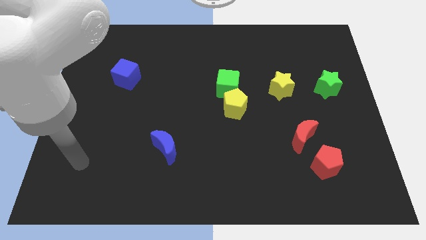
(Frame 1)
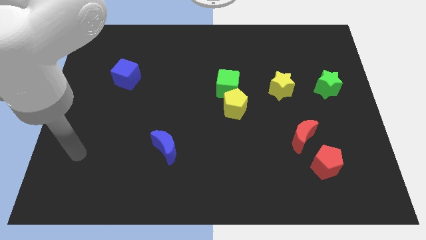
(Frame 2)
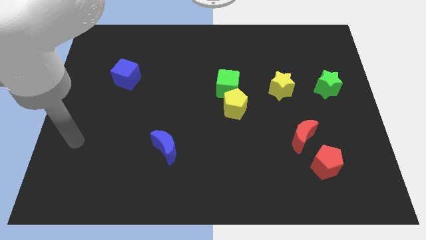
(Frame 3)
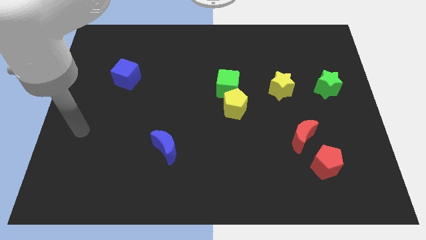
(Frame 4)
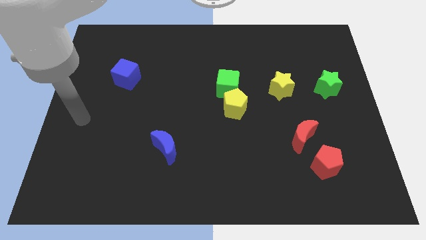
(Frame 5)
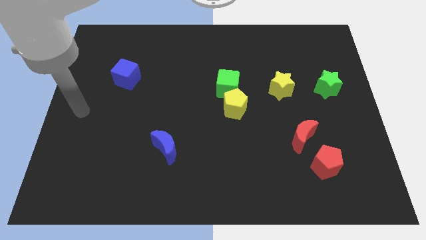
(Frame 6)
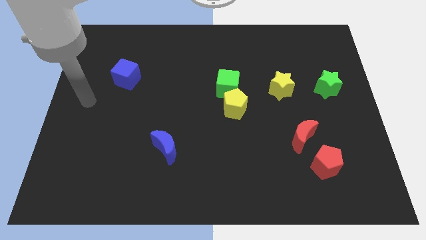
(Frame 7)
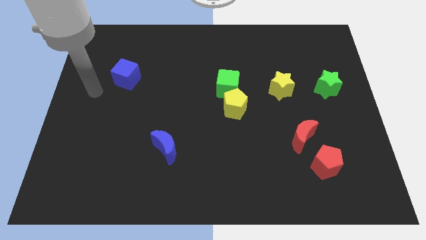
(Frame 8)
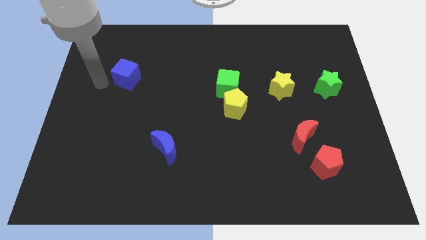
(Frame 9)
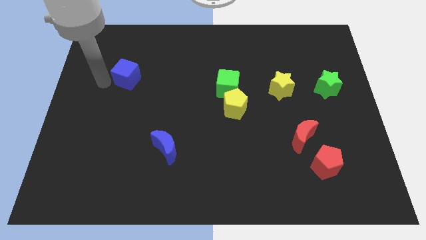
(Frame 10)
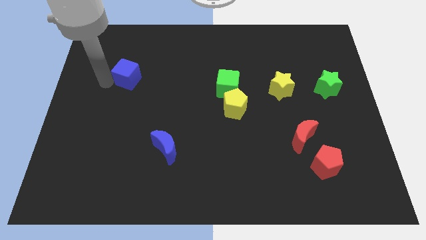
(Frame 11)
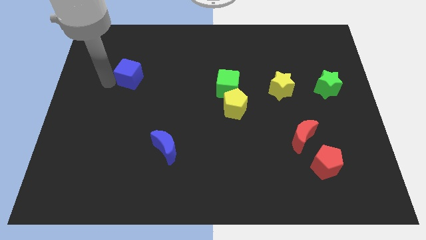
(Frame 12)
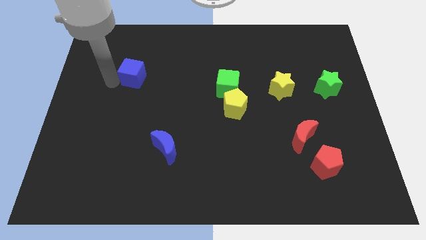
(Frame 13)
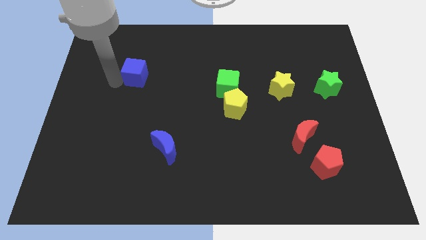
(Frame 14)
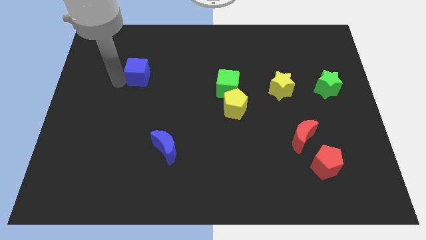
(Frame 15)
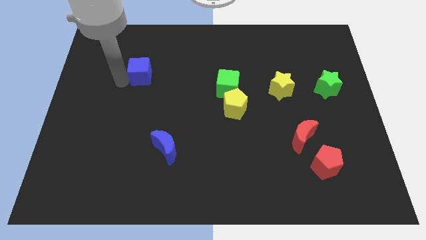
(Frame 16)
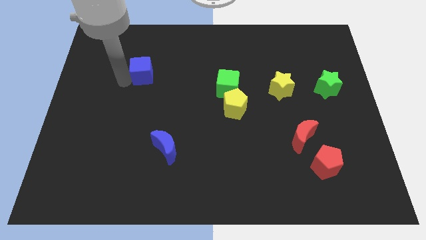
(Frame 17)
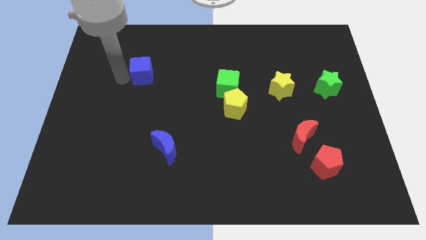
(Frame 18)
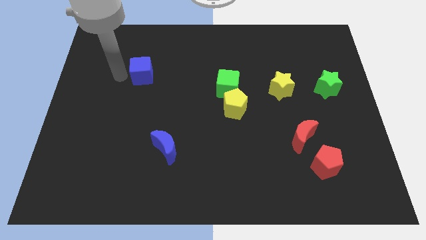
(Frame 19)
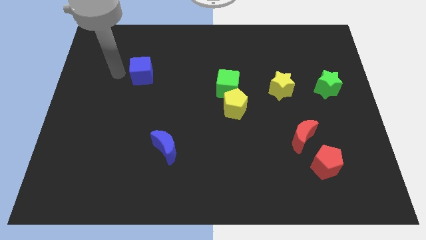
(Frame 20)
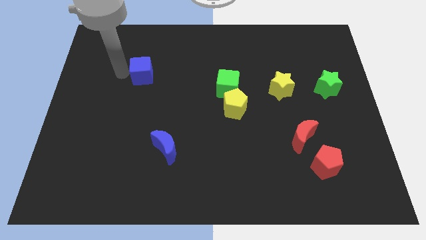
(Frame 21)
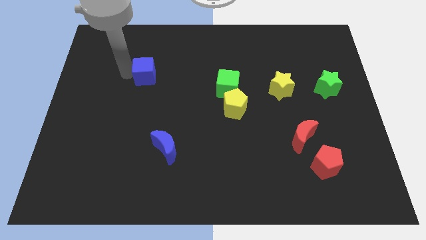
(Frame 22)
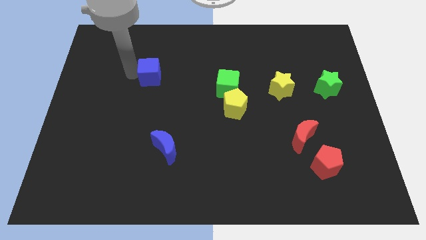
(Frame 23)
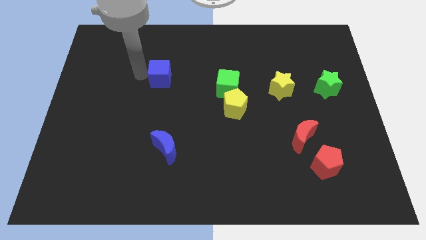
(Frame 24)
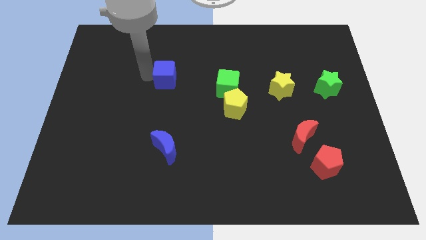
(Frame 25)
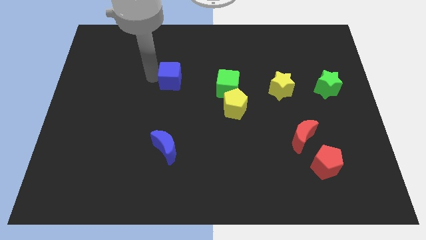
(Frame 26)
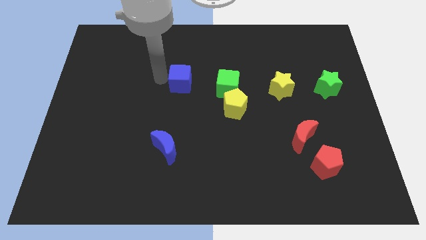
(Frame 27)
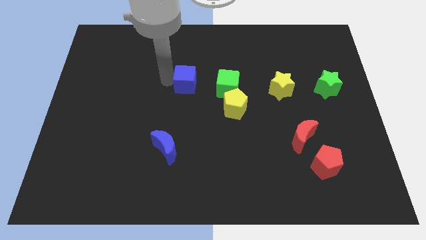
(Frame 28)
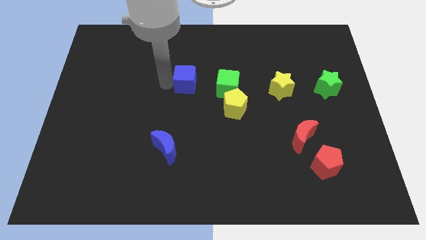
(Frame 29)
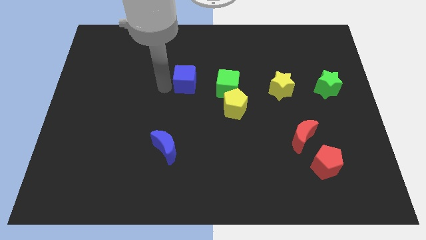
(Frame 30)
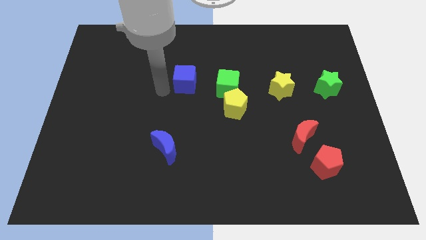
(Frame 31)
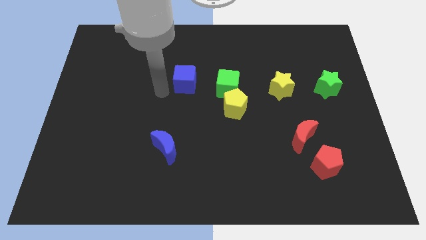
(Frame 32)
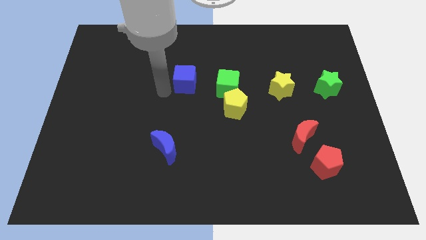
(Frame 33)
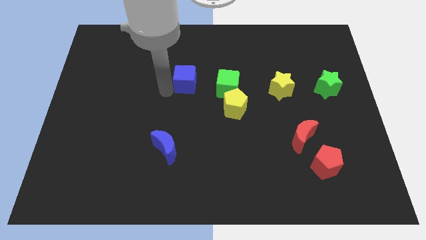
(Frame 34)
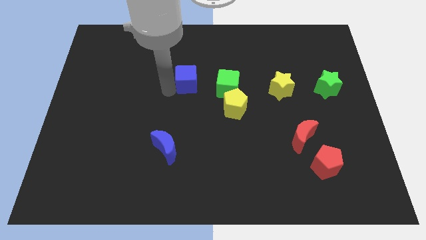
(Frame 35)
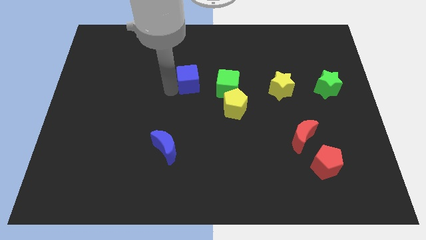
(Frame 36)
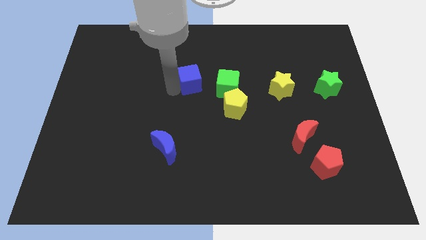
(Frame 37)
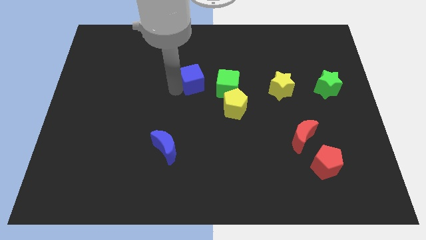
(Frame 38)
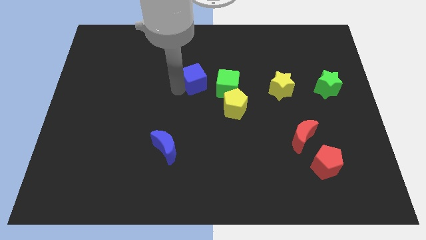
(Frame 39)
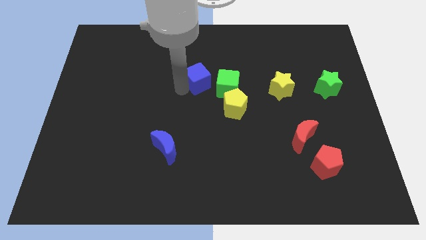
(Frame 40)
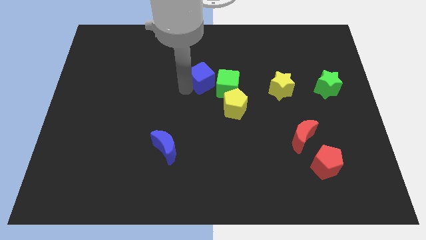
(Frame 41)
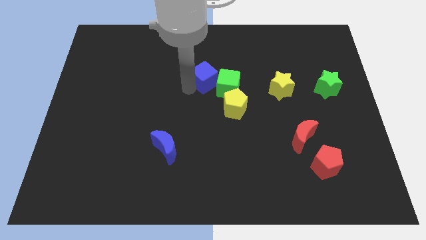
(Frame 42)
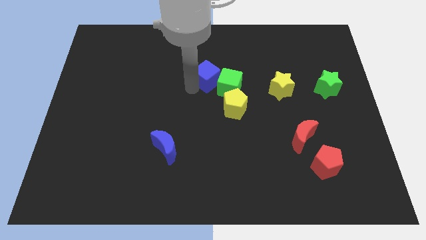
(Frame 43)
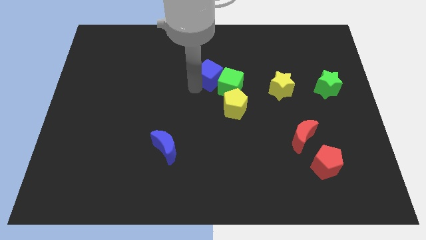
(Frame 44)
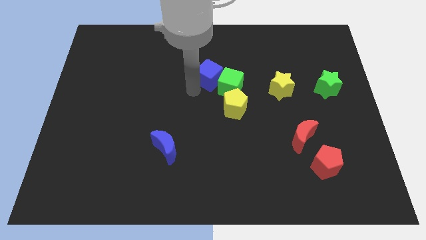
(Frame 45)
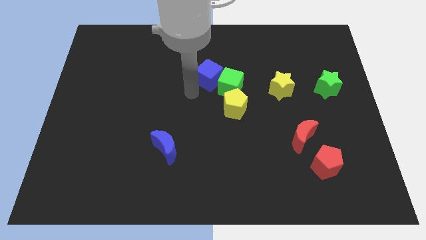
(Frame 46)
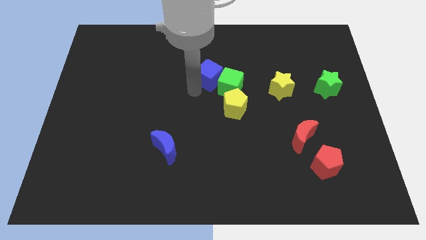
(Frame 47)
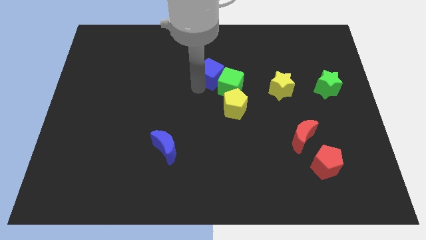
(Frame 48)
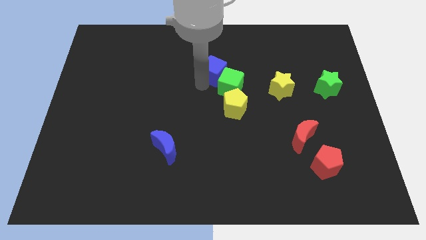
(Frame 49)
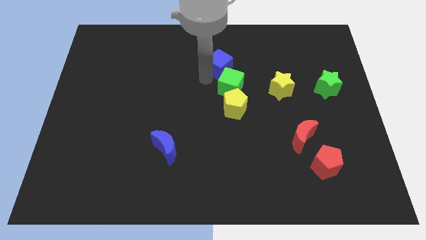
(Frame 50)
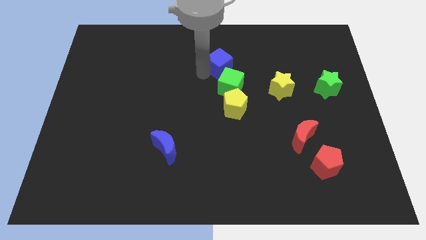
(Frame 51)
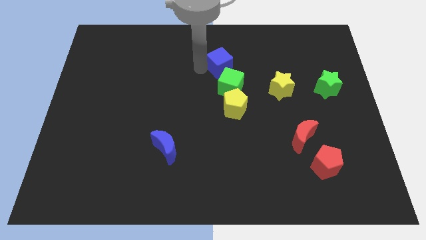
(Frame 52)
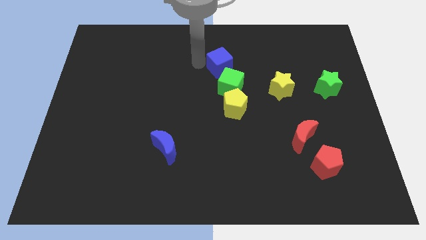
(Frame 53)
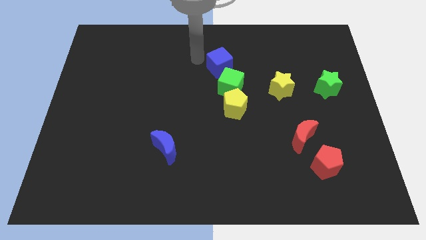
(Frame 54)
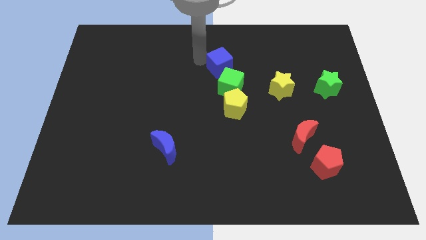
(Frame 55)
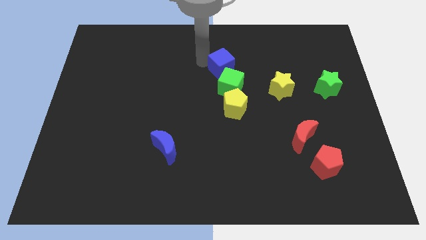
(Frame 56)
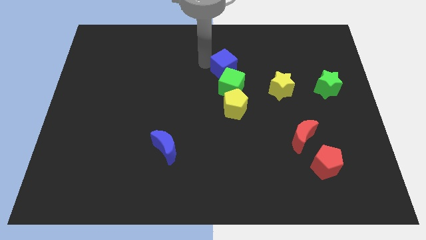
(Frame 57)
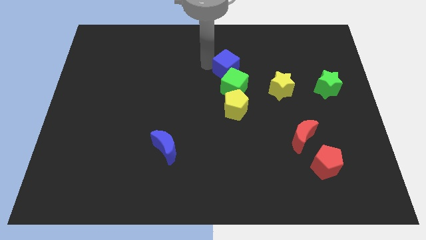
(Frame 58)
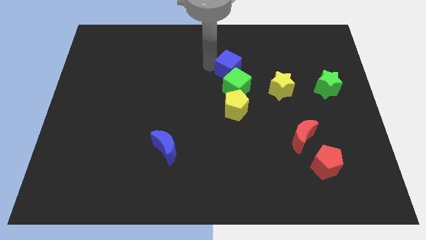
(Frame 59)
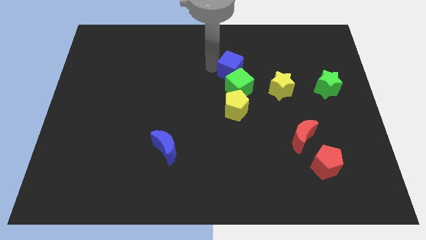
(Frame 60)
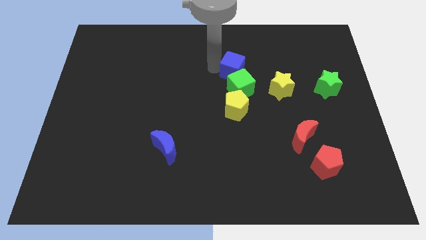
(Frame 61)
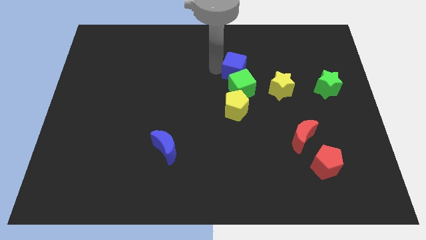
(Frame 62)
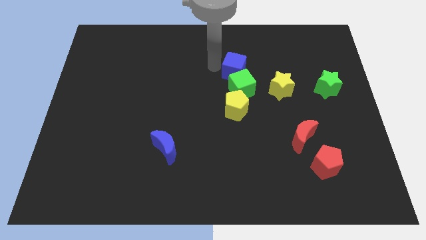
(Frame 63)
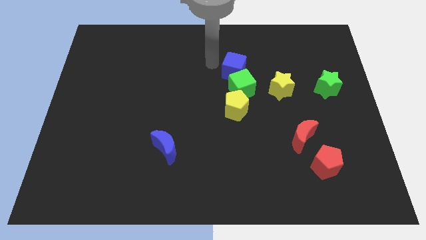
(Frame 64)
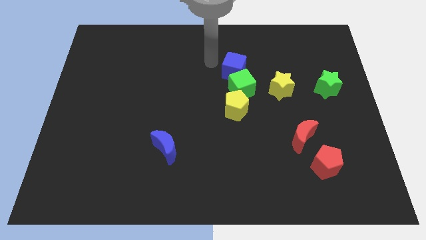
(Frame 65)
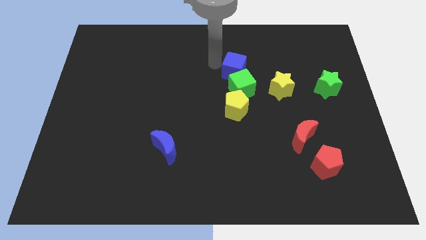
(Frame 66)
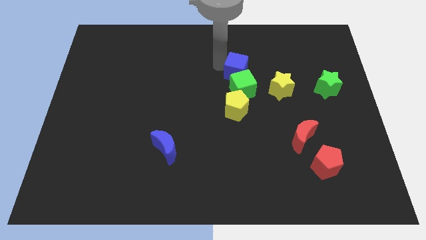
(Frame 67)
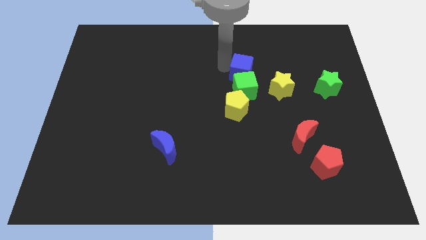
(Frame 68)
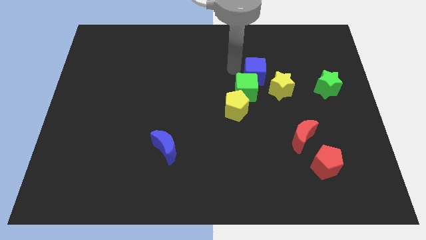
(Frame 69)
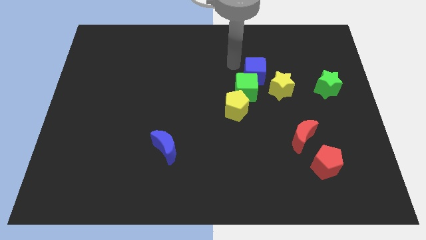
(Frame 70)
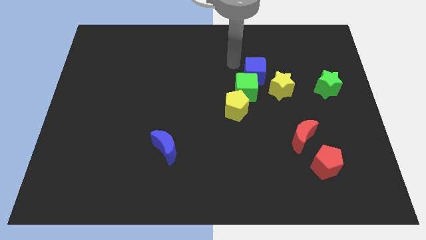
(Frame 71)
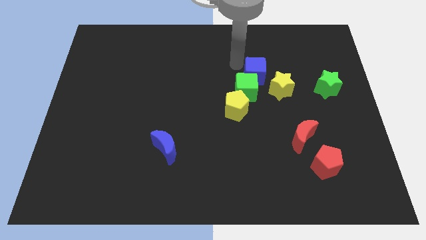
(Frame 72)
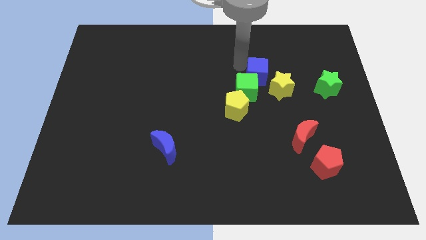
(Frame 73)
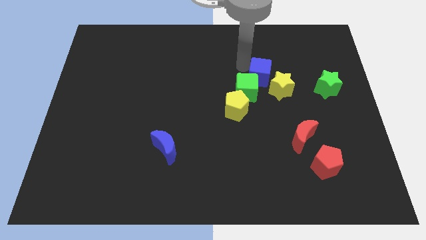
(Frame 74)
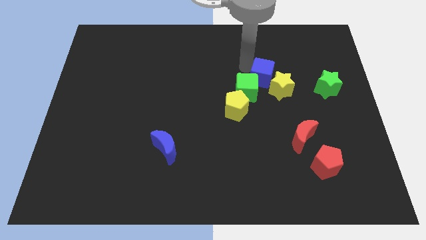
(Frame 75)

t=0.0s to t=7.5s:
put the blue cube next to the yellow star
